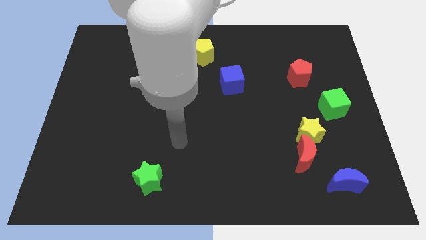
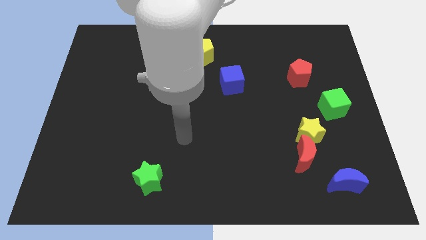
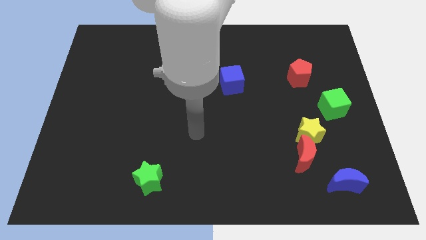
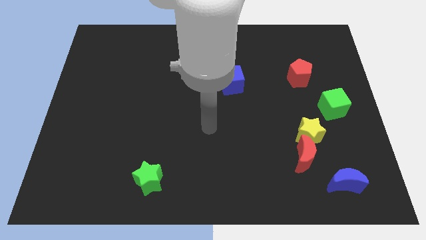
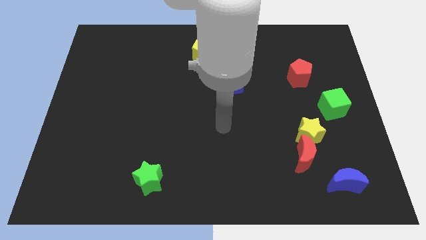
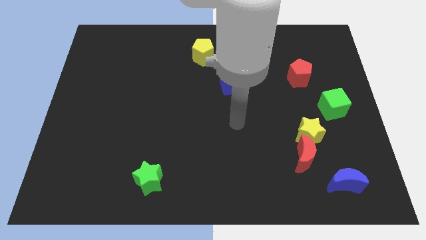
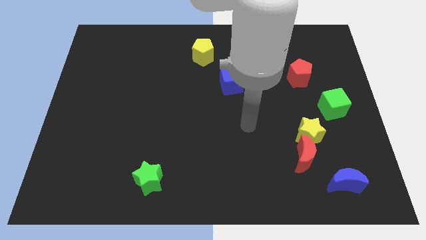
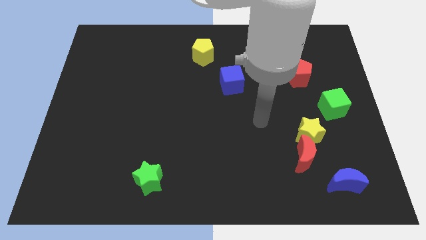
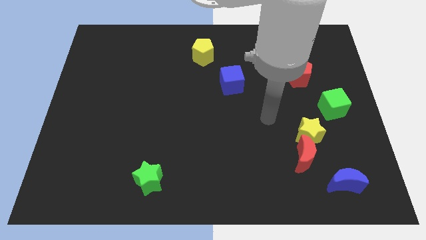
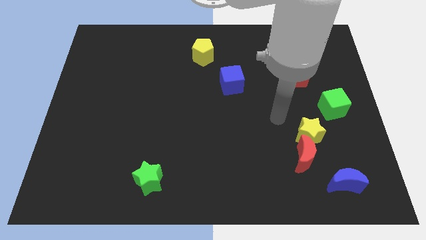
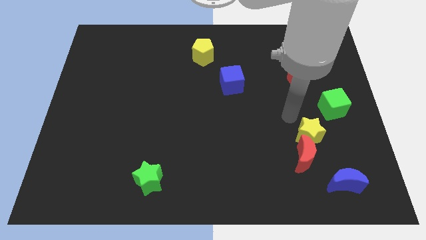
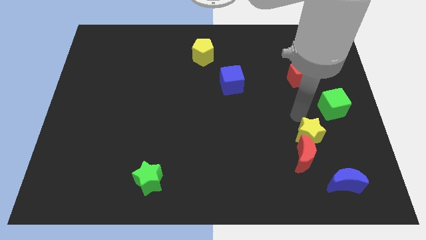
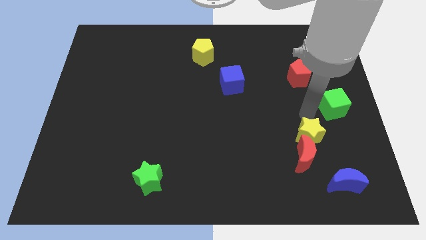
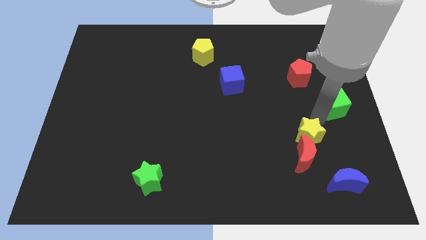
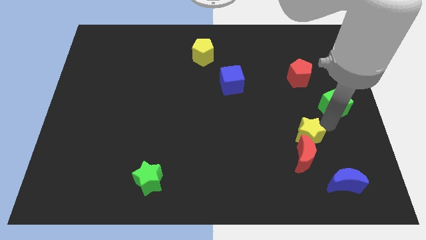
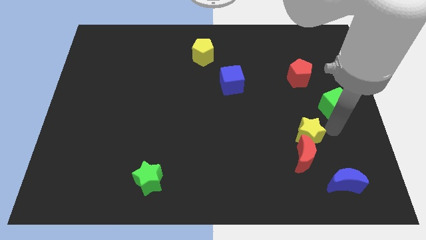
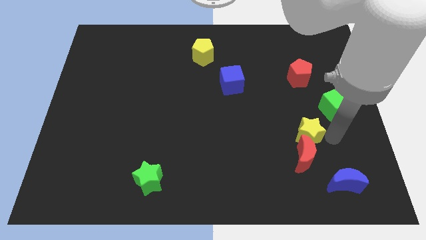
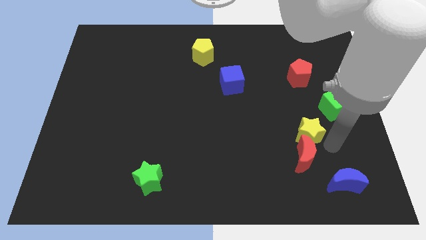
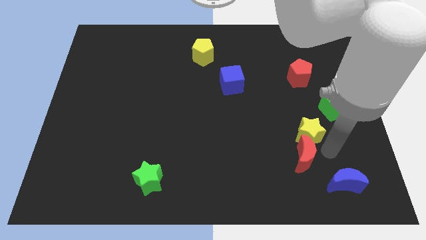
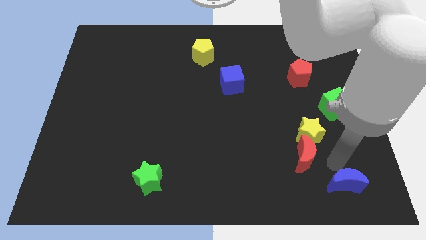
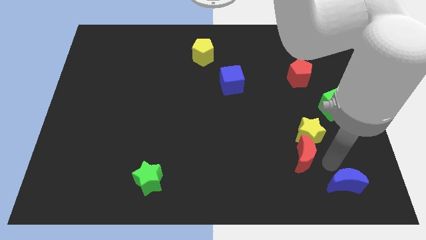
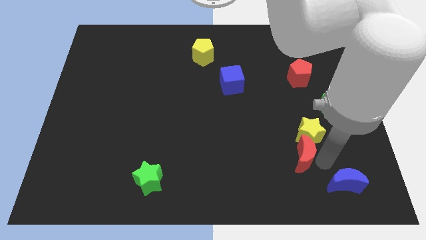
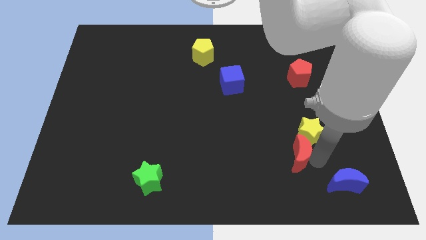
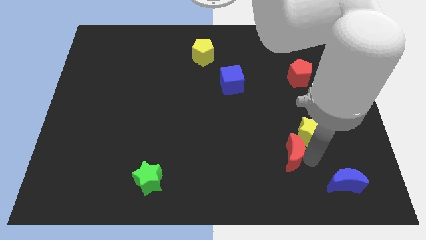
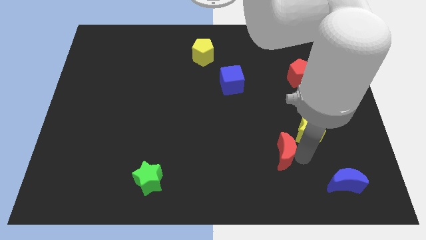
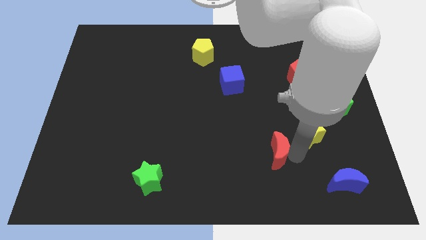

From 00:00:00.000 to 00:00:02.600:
move the red moon away from the yellow star and blue moon

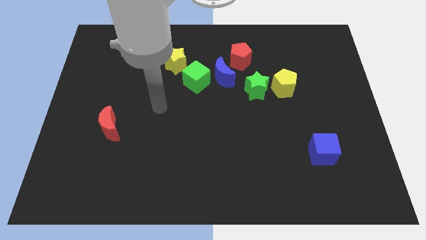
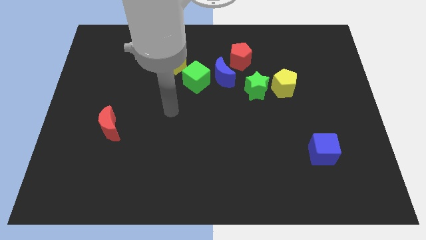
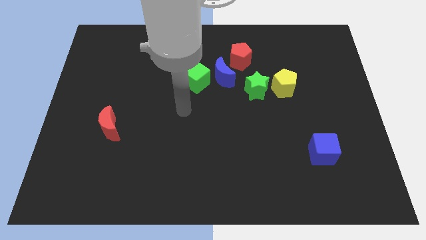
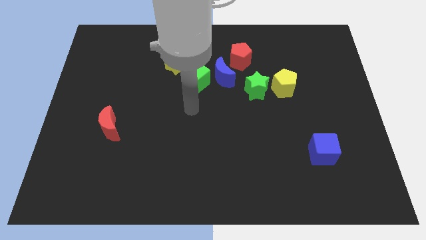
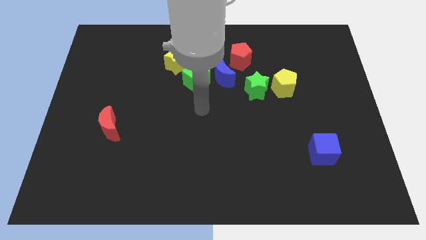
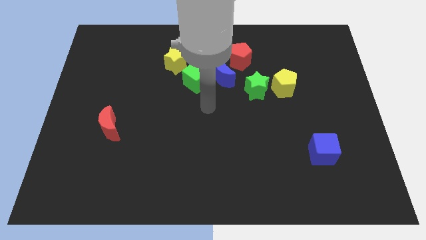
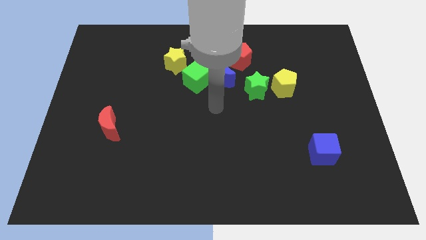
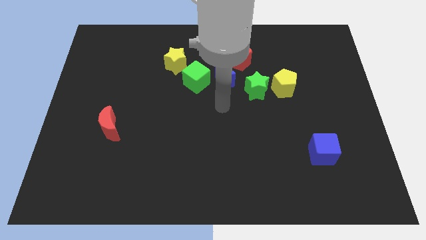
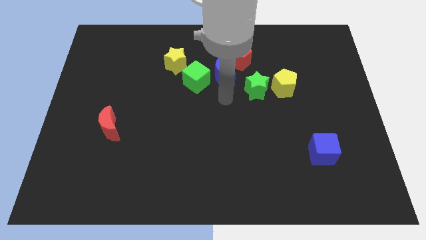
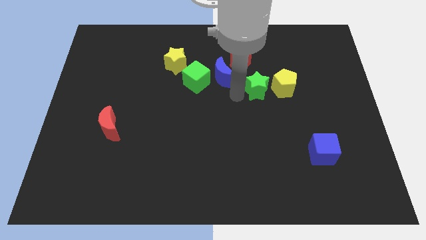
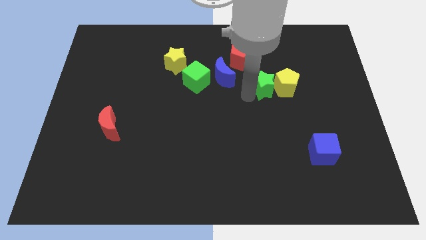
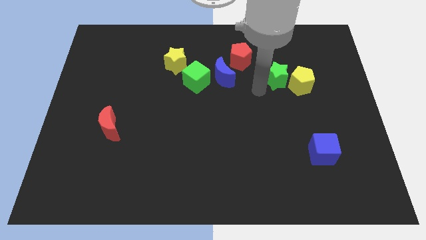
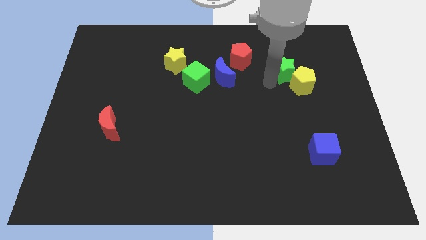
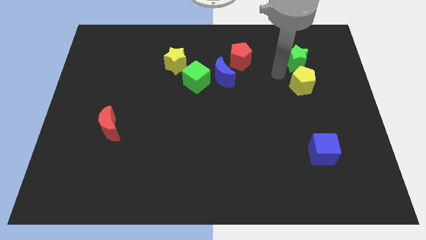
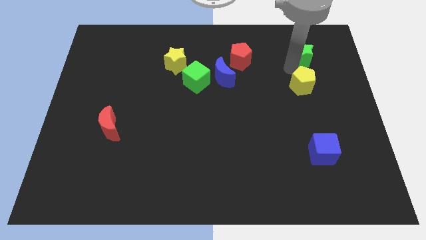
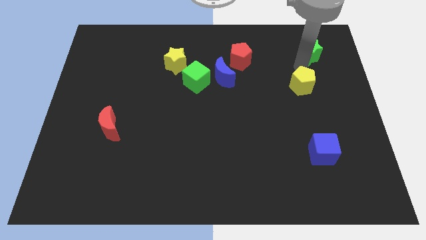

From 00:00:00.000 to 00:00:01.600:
move the yellow pentagon away from the green star

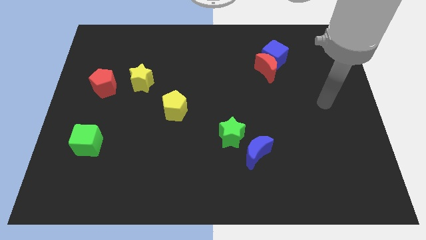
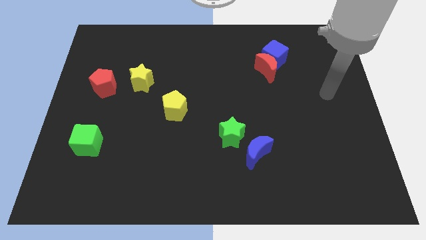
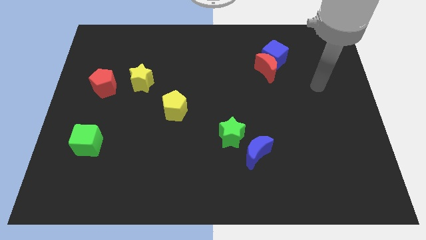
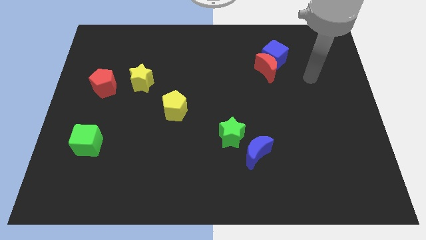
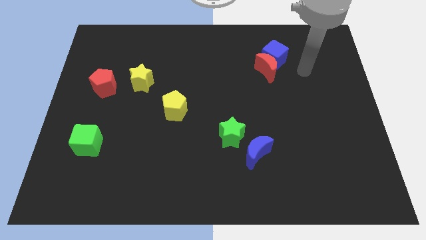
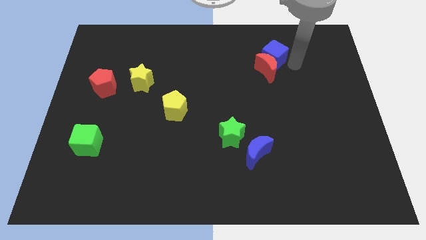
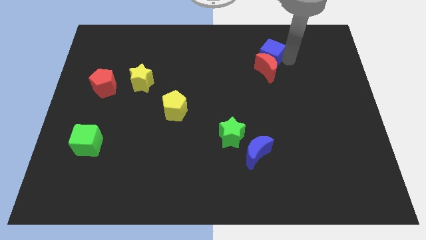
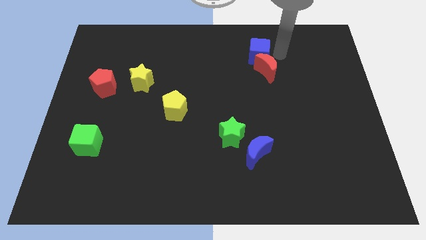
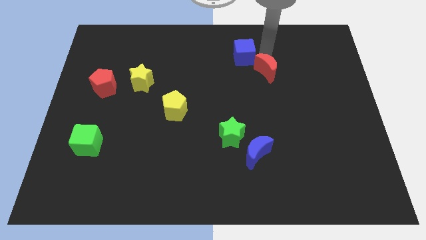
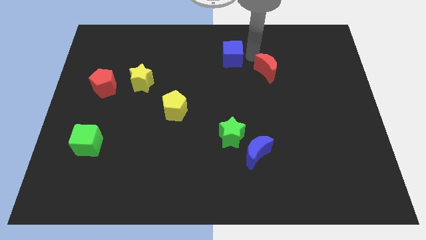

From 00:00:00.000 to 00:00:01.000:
move the red moon away from the blue cube

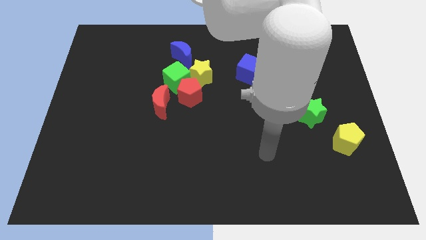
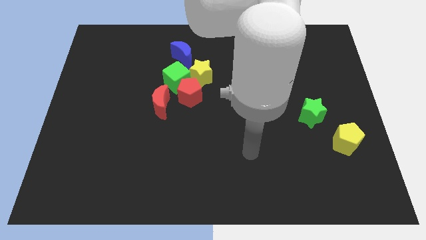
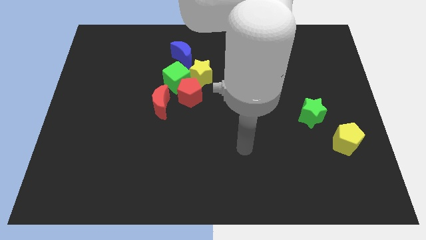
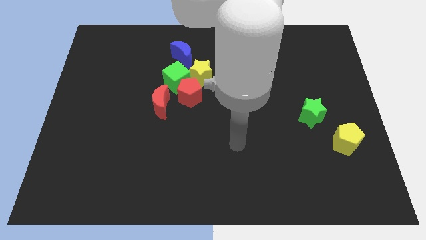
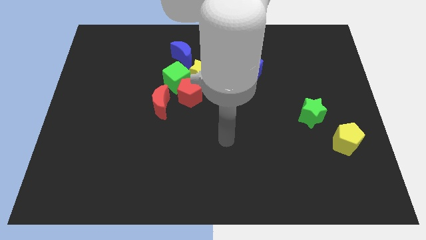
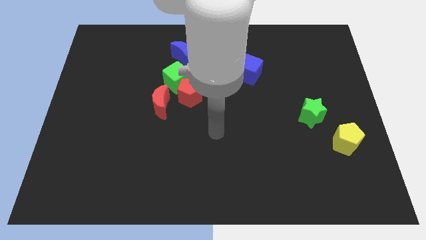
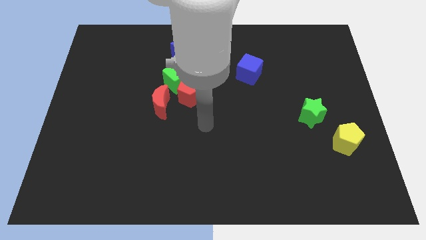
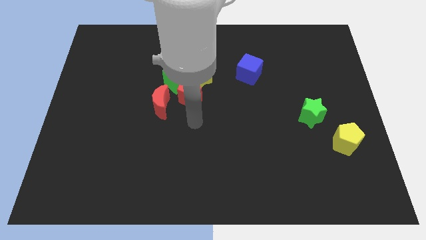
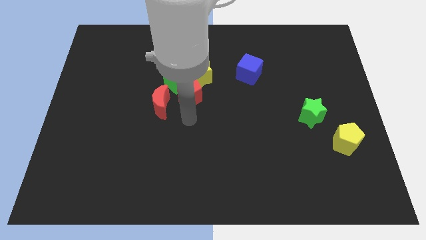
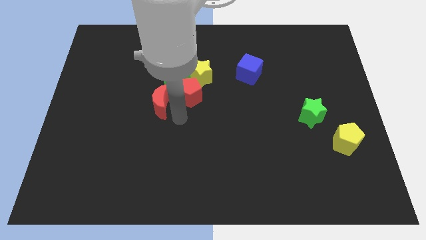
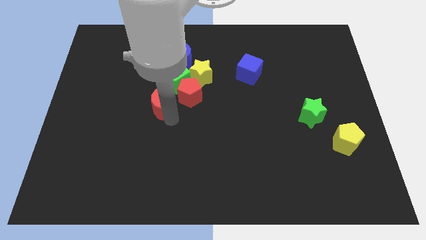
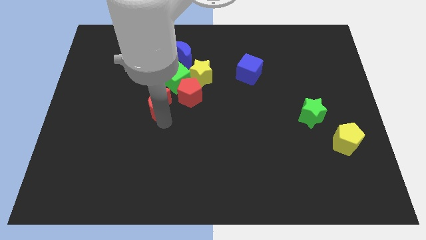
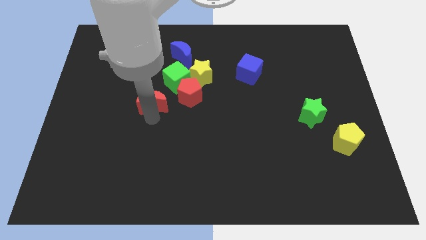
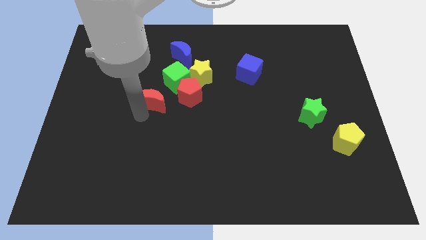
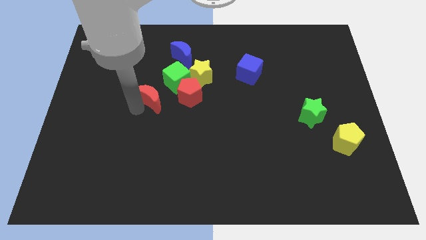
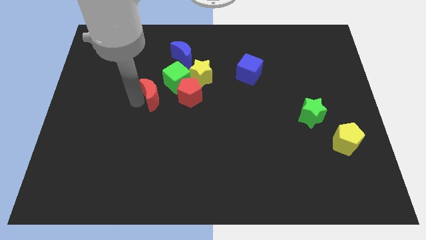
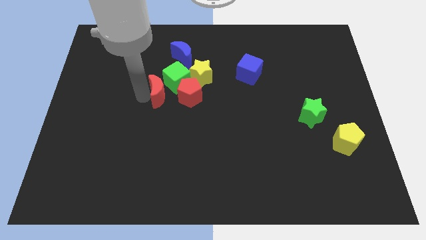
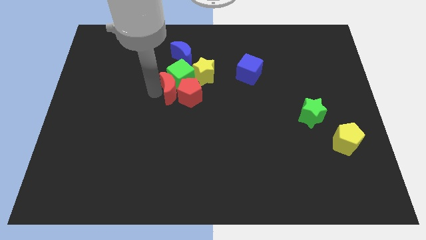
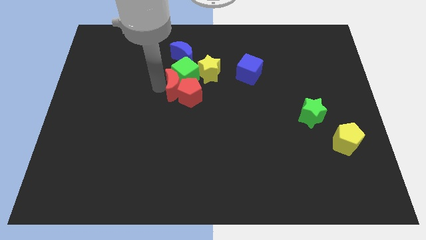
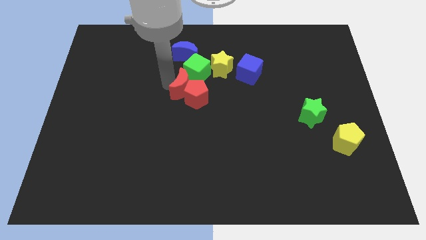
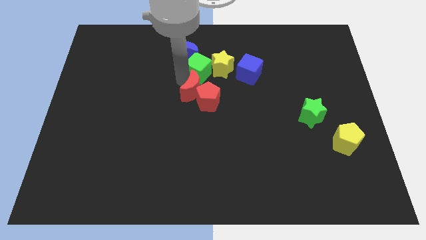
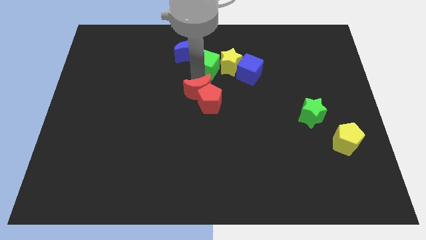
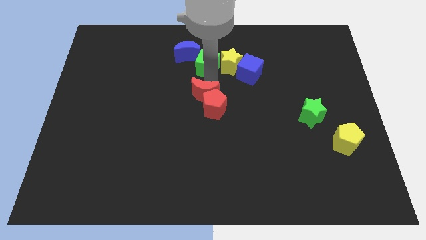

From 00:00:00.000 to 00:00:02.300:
move the red pentagon away from the group

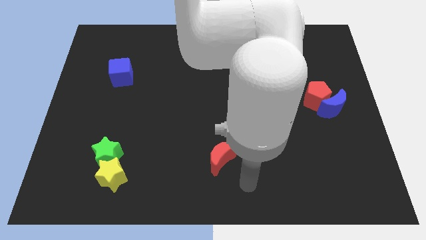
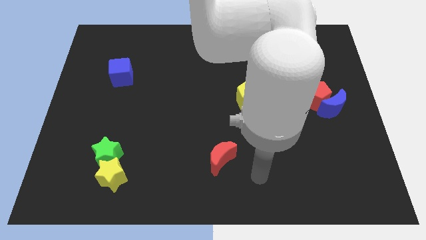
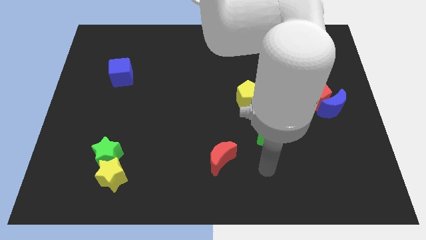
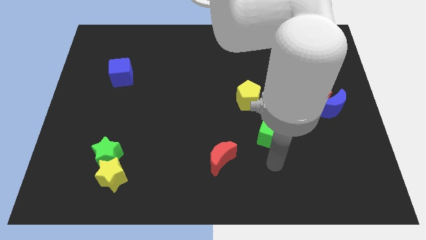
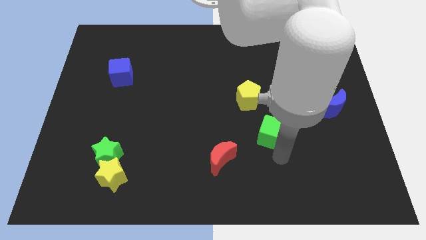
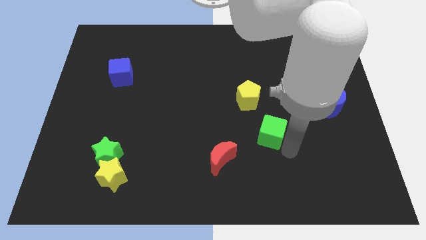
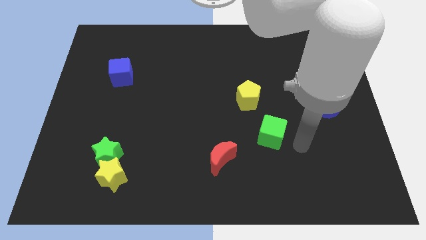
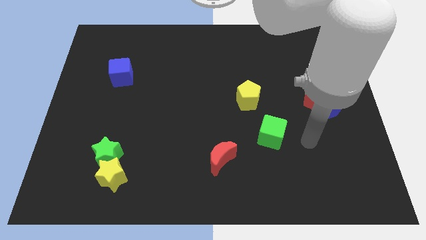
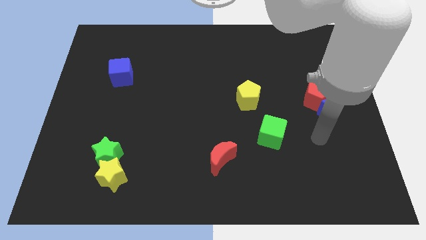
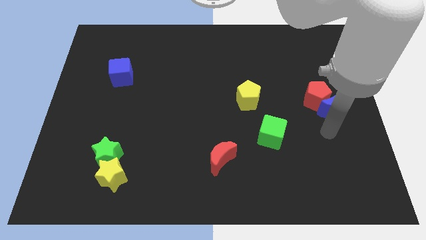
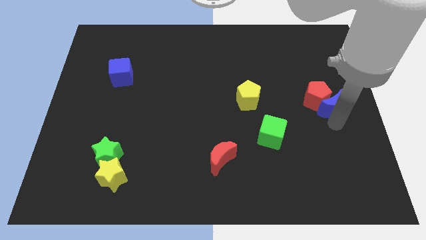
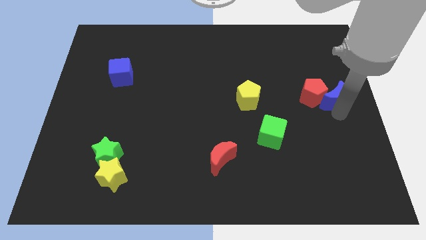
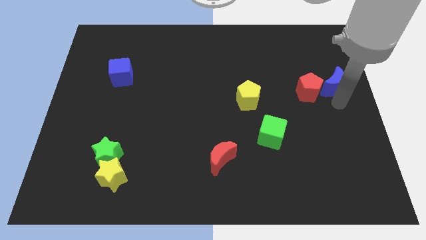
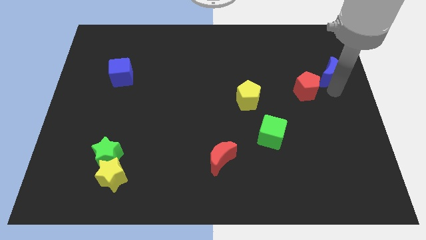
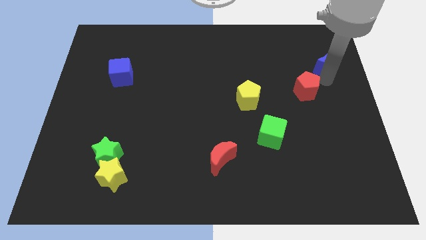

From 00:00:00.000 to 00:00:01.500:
pull the red pentagon apart from the blue moon

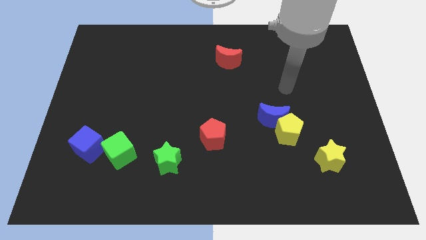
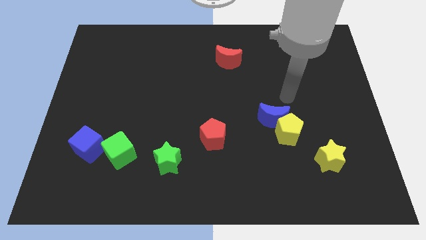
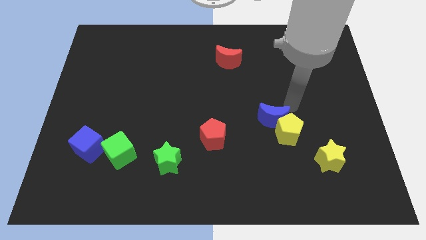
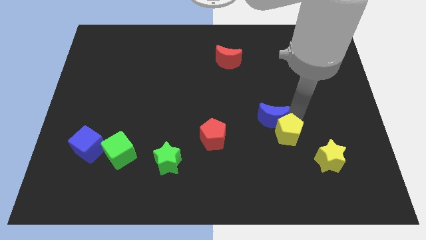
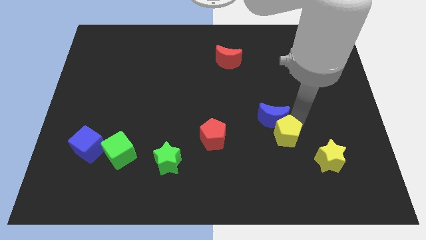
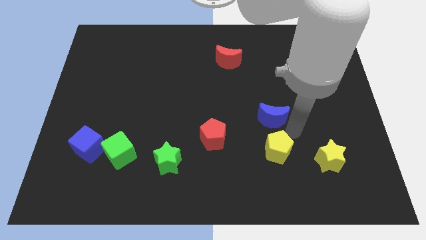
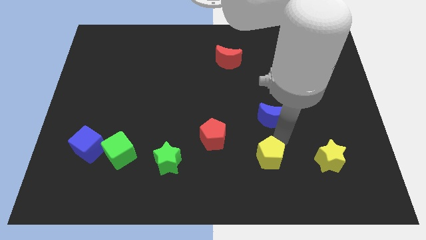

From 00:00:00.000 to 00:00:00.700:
separate the blue moon from the yellow pentagon
